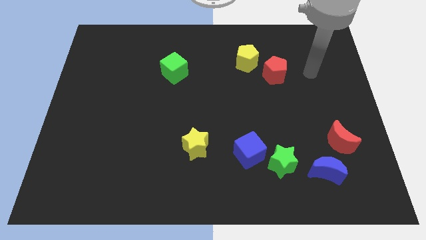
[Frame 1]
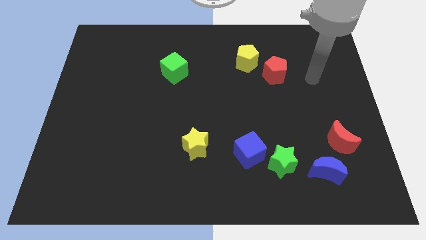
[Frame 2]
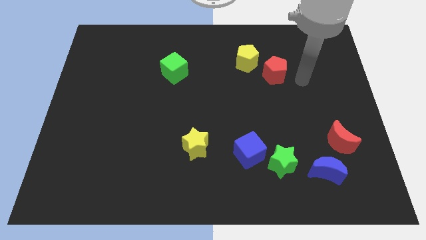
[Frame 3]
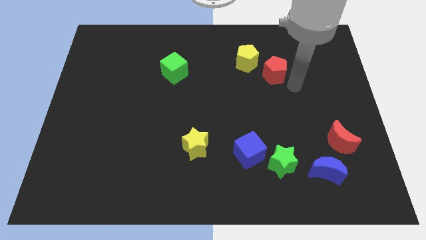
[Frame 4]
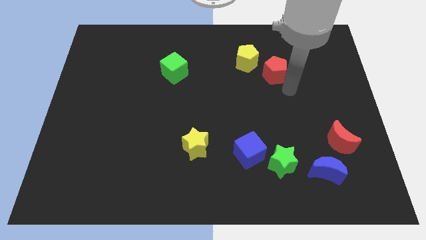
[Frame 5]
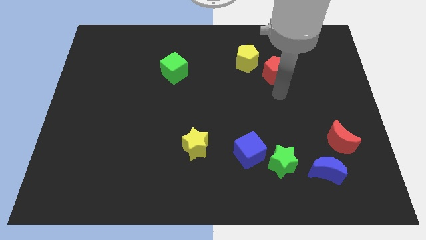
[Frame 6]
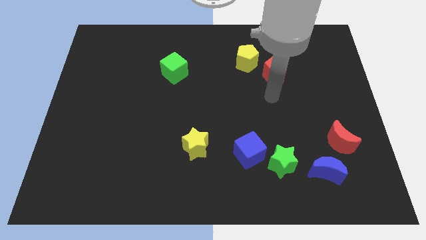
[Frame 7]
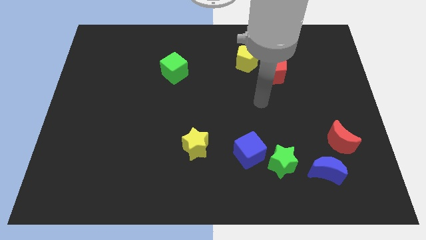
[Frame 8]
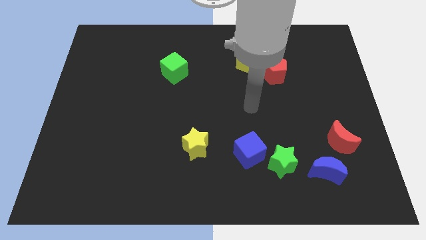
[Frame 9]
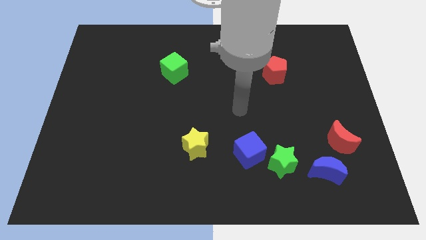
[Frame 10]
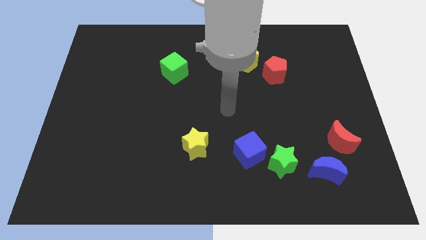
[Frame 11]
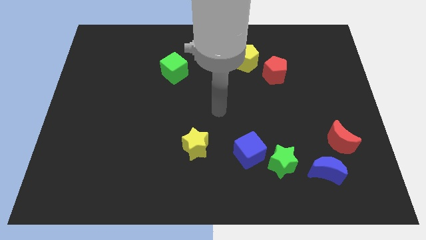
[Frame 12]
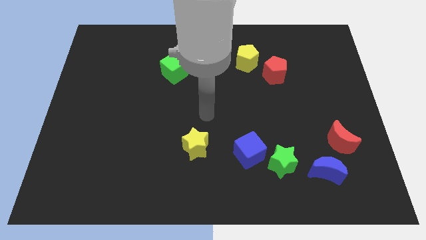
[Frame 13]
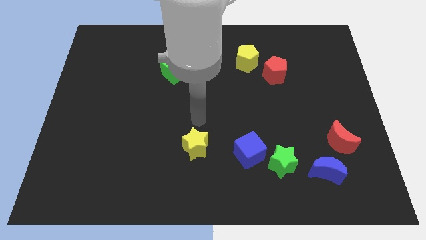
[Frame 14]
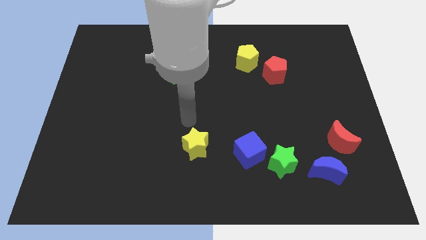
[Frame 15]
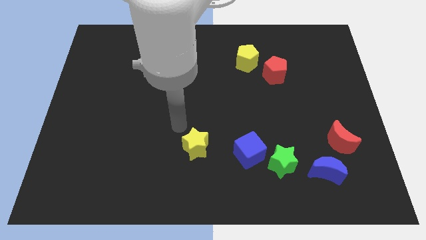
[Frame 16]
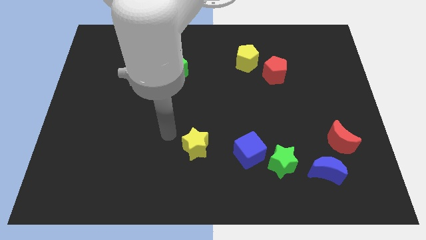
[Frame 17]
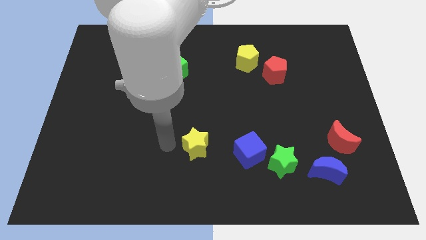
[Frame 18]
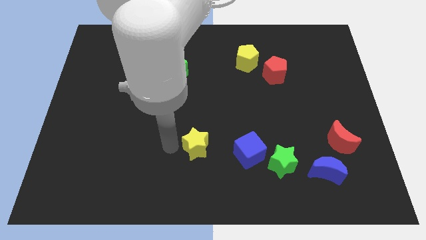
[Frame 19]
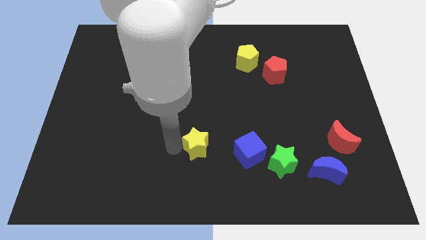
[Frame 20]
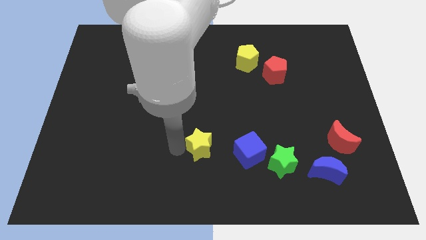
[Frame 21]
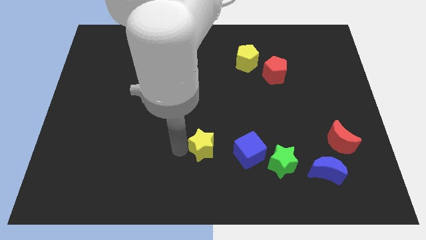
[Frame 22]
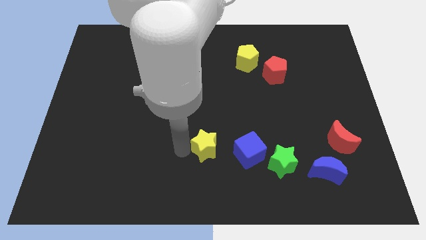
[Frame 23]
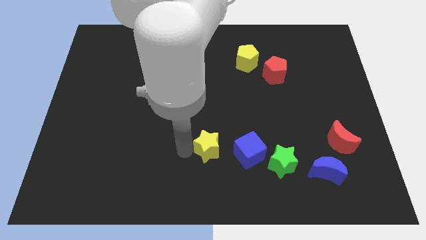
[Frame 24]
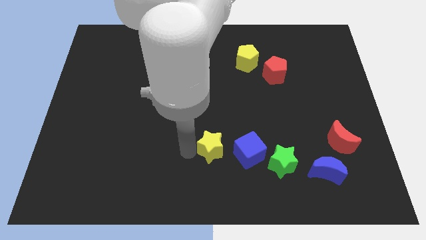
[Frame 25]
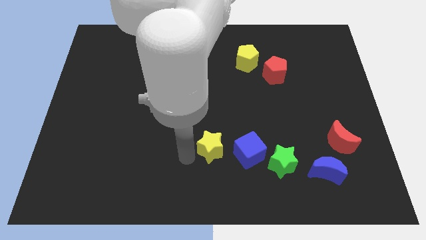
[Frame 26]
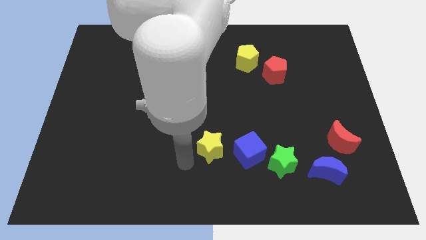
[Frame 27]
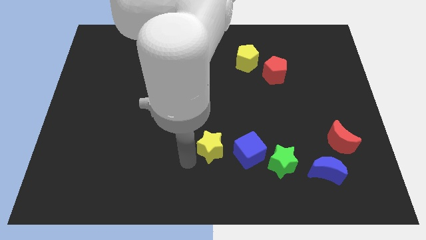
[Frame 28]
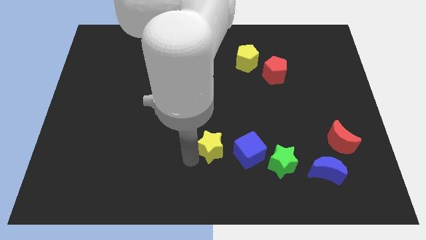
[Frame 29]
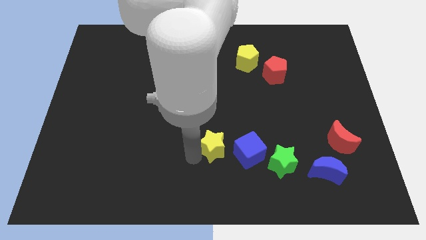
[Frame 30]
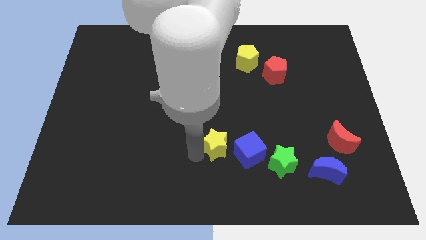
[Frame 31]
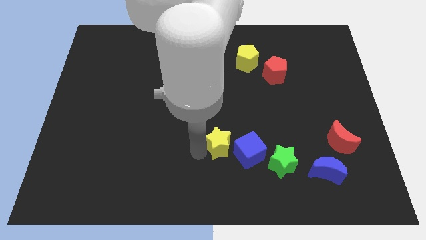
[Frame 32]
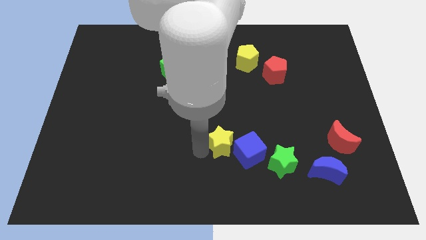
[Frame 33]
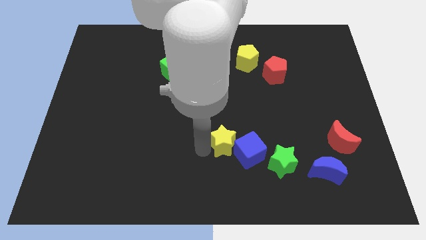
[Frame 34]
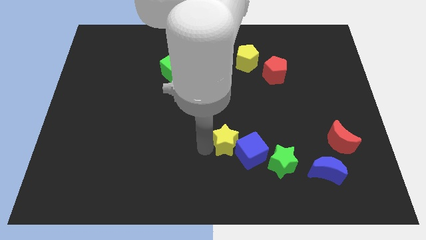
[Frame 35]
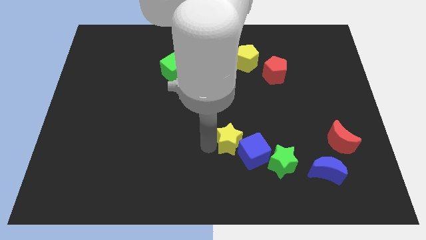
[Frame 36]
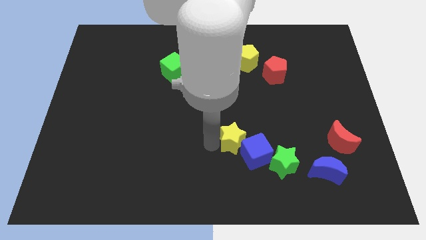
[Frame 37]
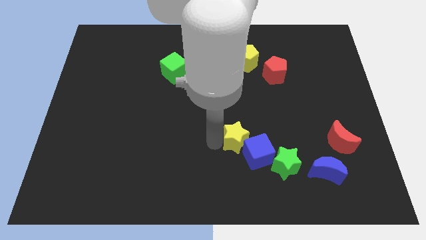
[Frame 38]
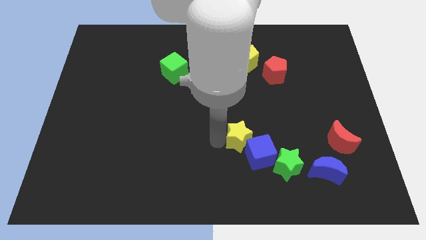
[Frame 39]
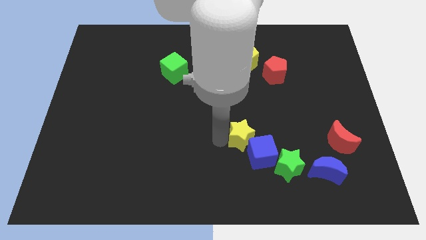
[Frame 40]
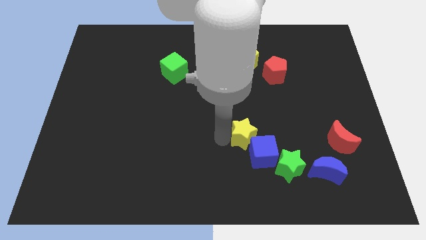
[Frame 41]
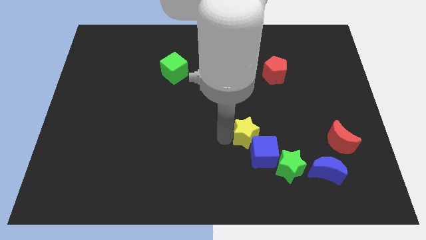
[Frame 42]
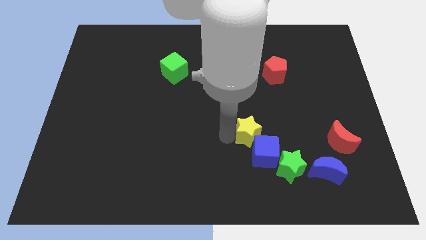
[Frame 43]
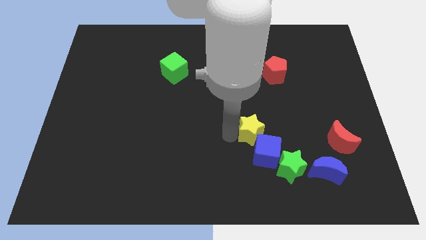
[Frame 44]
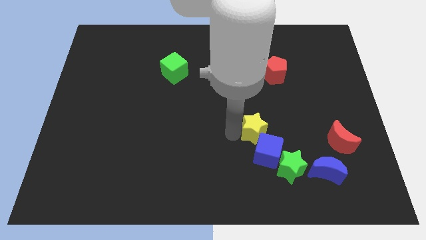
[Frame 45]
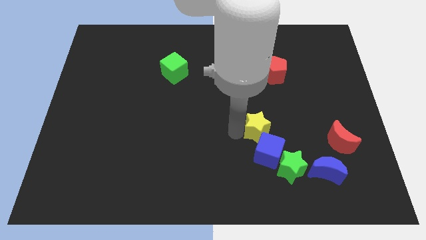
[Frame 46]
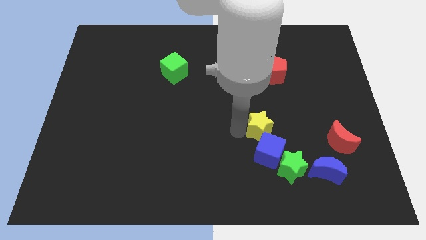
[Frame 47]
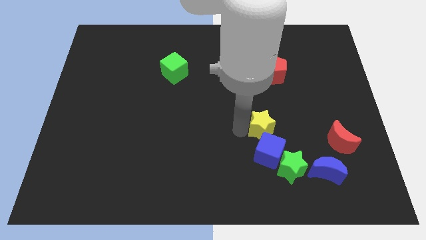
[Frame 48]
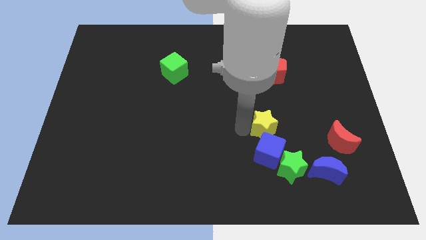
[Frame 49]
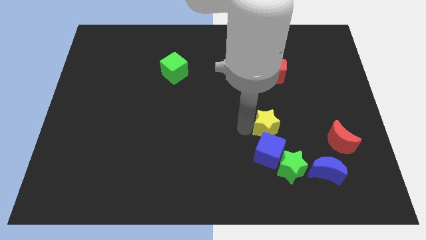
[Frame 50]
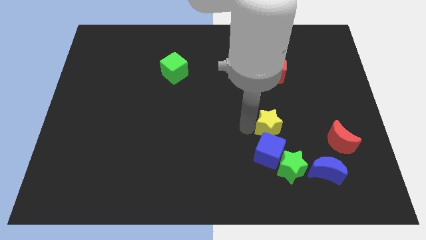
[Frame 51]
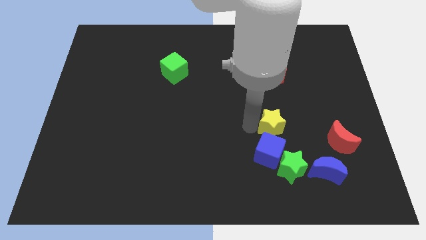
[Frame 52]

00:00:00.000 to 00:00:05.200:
push the yellow star to the left side of the red moon

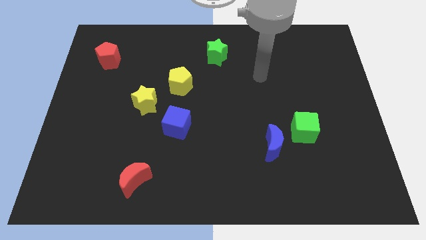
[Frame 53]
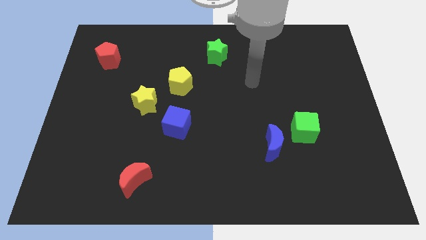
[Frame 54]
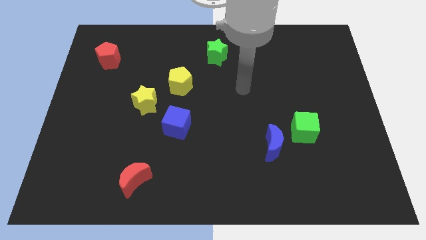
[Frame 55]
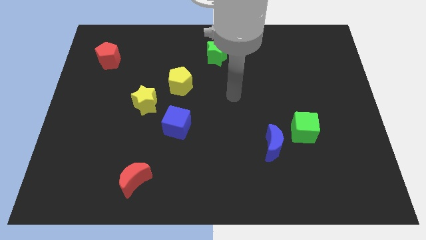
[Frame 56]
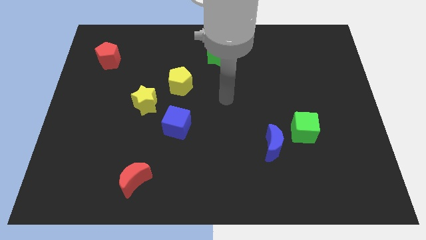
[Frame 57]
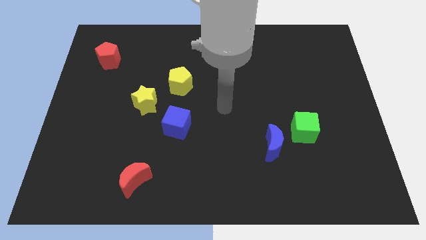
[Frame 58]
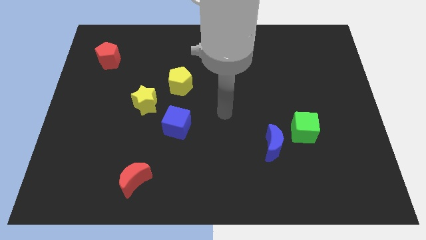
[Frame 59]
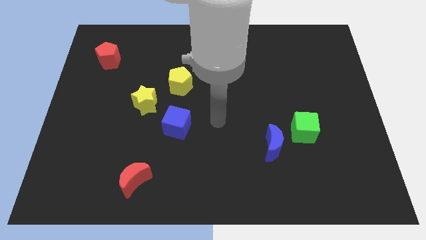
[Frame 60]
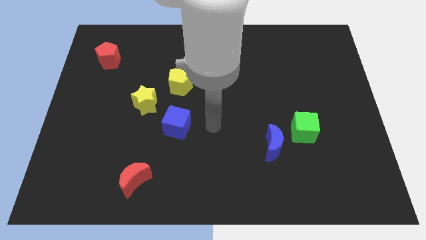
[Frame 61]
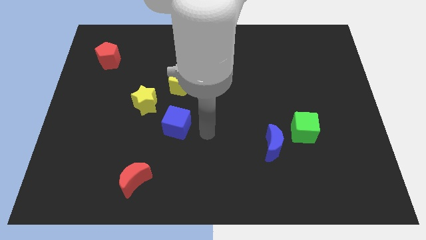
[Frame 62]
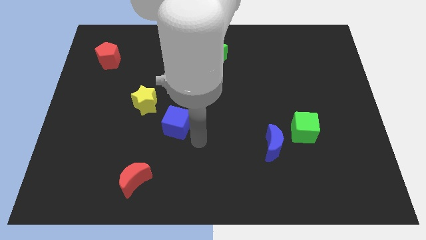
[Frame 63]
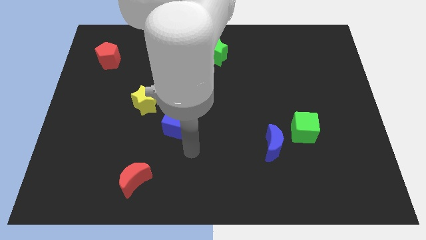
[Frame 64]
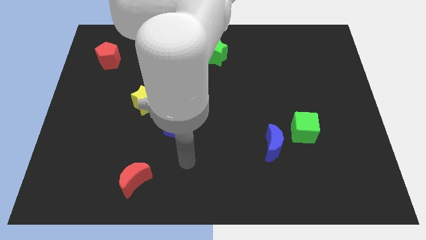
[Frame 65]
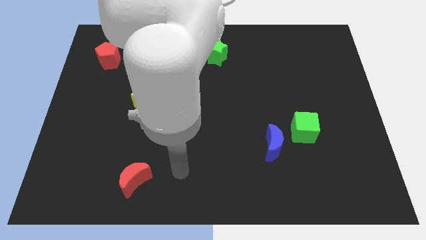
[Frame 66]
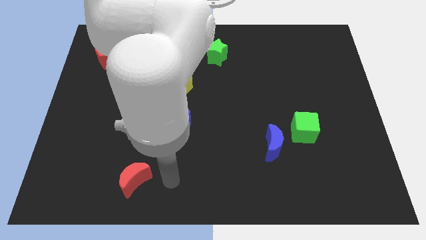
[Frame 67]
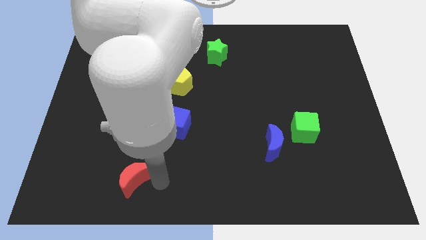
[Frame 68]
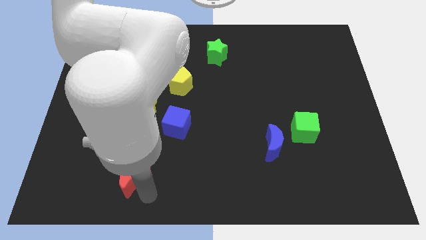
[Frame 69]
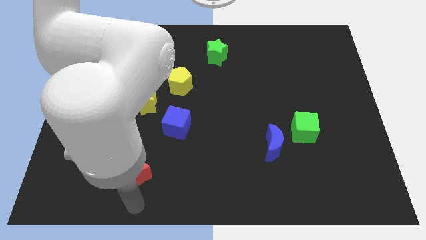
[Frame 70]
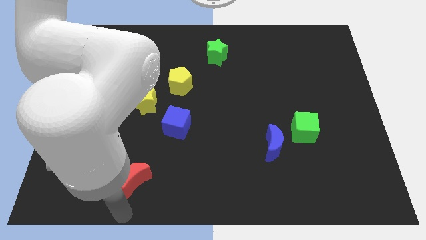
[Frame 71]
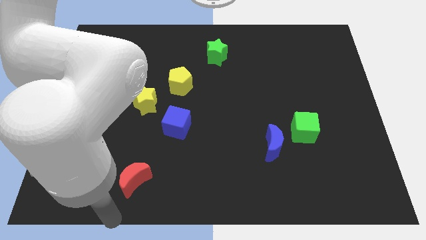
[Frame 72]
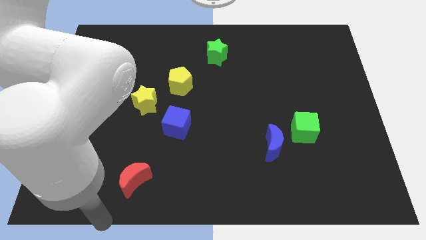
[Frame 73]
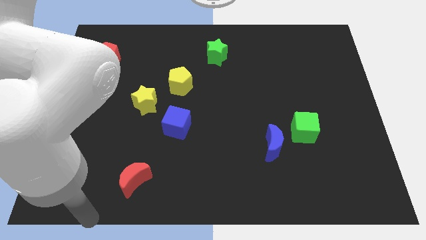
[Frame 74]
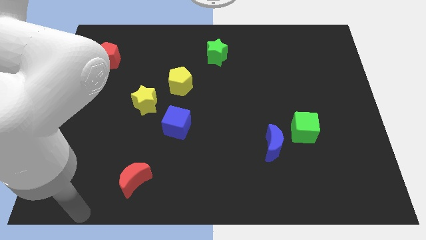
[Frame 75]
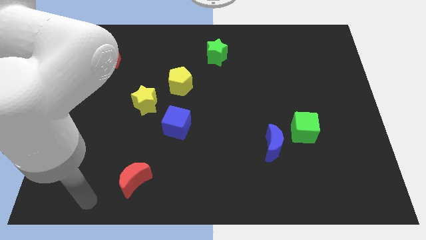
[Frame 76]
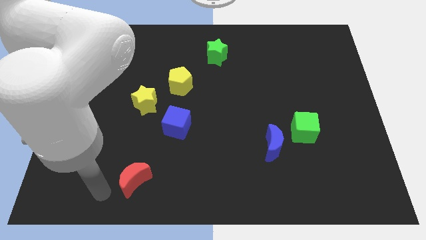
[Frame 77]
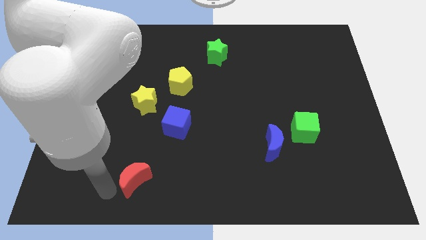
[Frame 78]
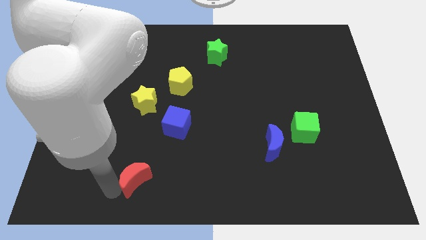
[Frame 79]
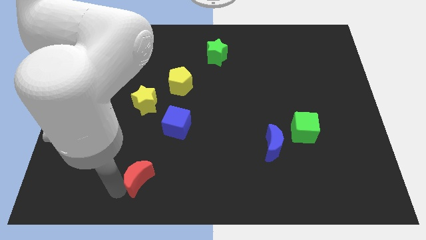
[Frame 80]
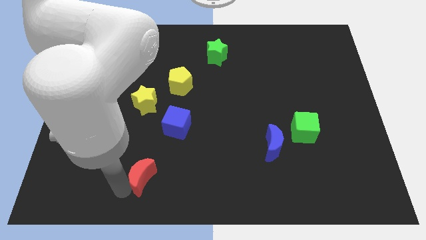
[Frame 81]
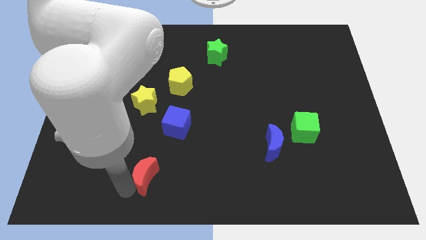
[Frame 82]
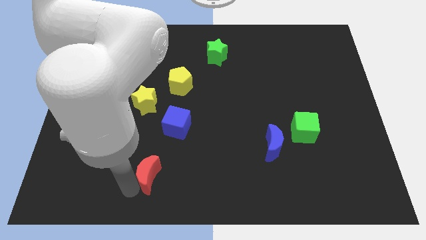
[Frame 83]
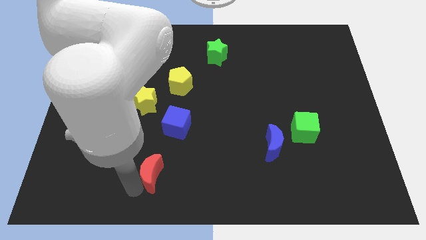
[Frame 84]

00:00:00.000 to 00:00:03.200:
move the red moon to the bottom side of the blue cube
